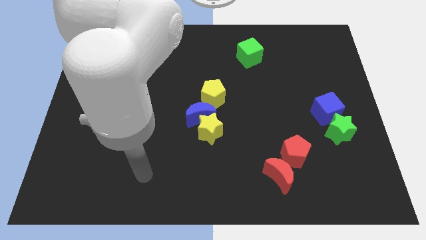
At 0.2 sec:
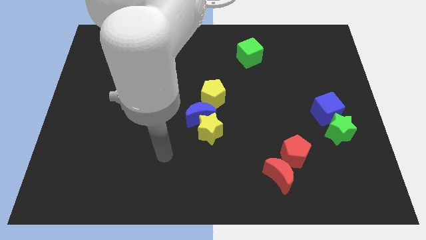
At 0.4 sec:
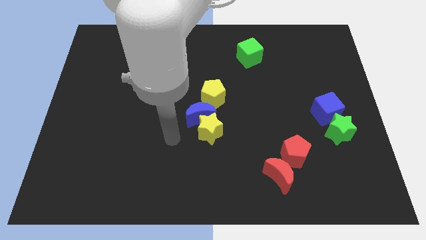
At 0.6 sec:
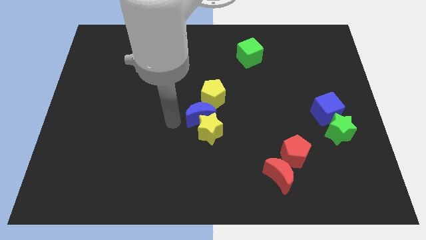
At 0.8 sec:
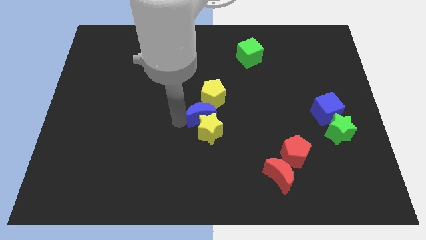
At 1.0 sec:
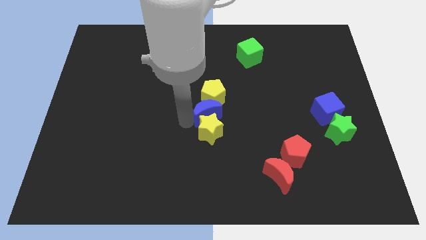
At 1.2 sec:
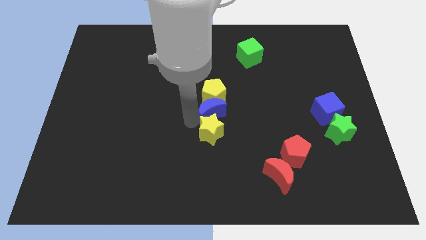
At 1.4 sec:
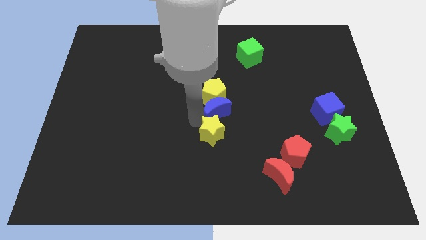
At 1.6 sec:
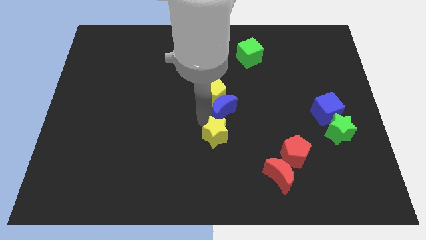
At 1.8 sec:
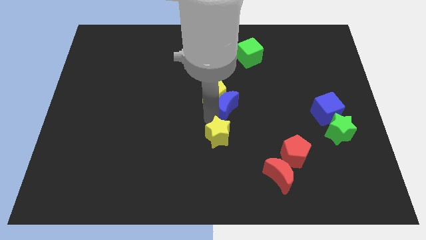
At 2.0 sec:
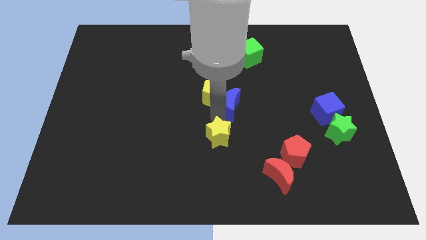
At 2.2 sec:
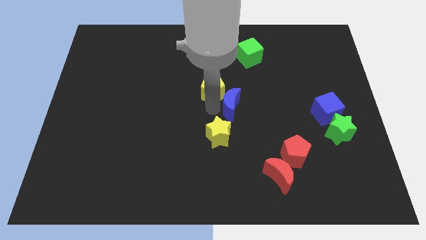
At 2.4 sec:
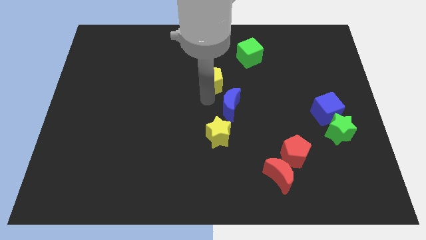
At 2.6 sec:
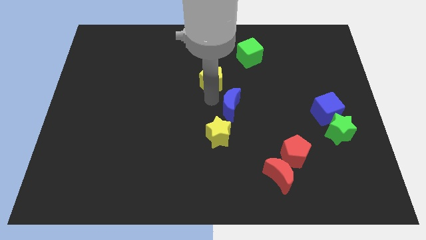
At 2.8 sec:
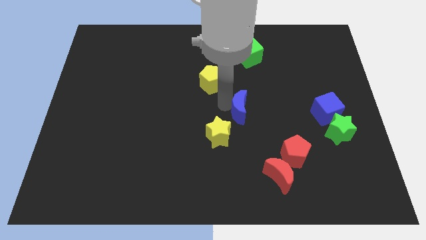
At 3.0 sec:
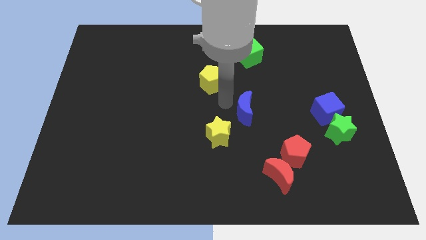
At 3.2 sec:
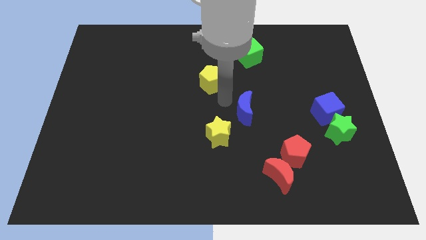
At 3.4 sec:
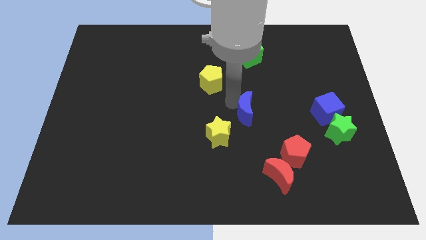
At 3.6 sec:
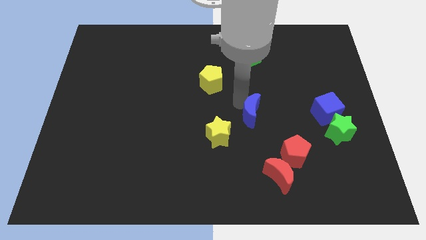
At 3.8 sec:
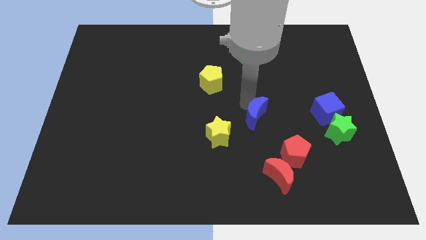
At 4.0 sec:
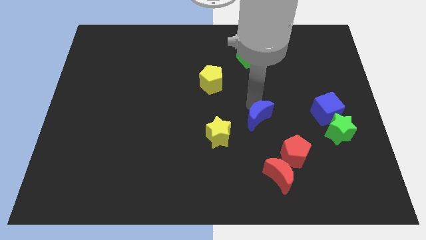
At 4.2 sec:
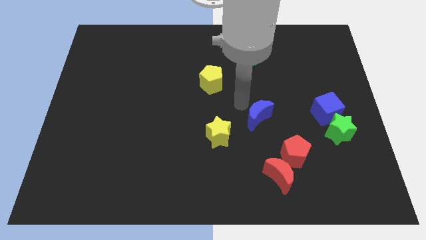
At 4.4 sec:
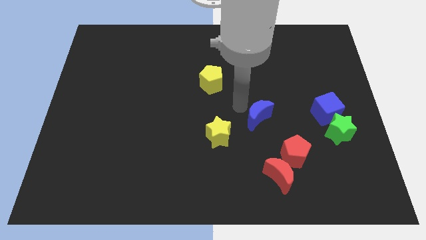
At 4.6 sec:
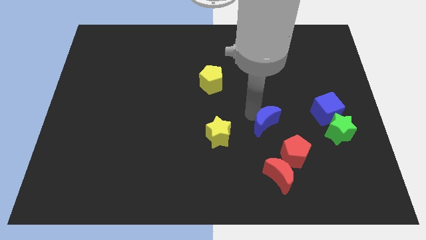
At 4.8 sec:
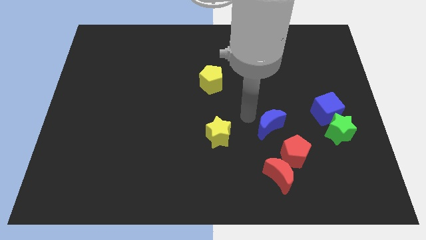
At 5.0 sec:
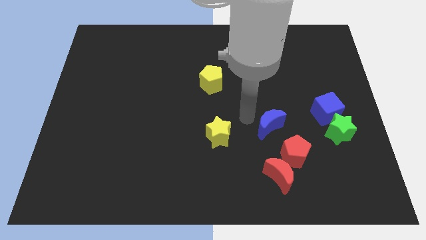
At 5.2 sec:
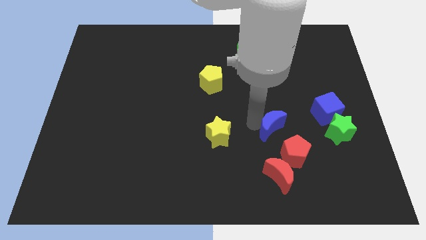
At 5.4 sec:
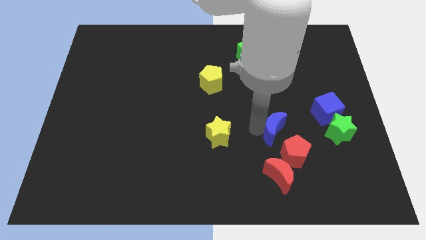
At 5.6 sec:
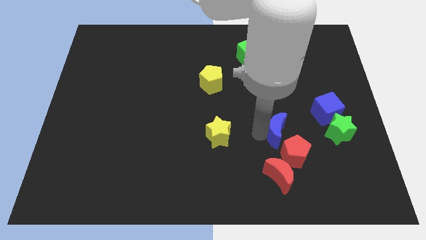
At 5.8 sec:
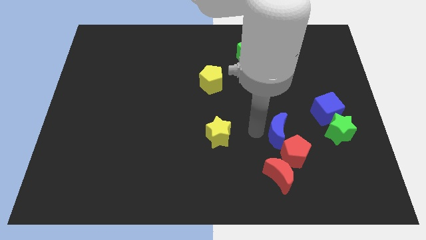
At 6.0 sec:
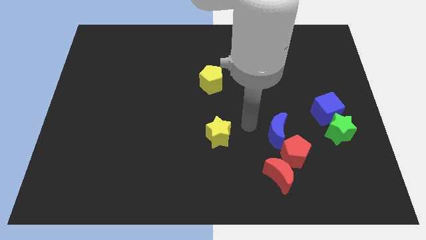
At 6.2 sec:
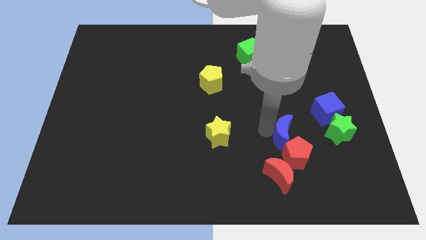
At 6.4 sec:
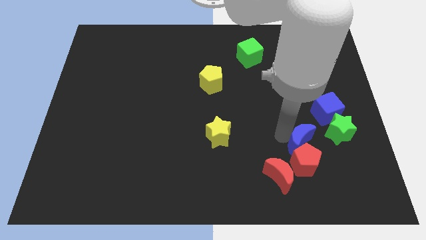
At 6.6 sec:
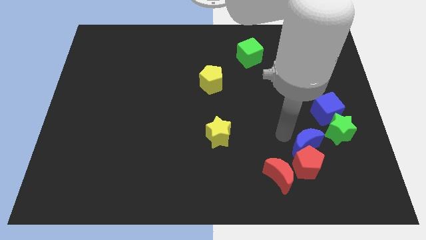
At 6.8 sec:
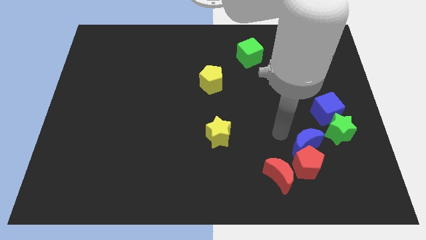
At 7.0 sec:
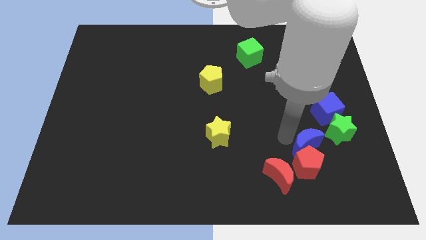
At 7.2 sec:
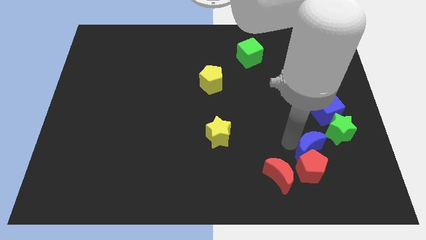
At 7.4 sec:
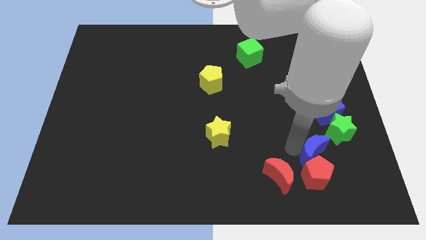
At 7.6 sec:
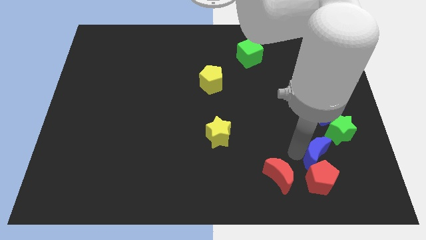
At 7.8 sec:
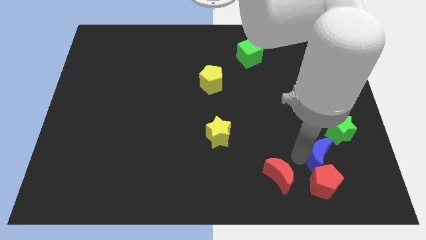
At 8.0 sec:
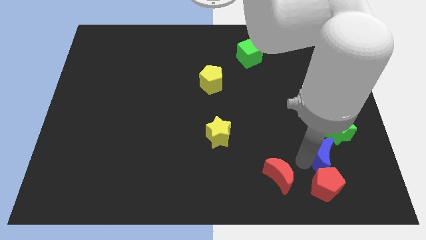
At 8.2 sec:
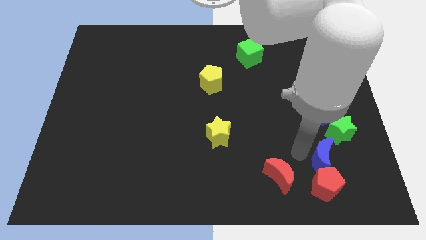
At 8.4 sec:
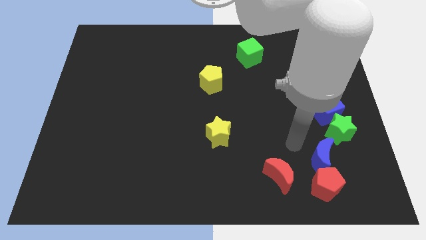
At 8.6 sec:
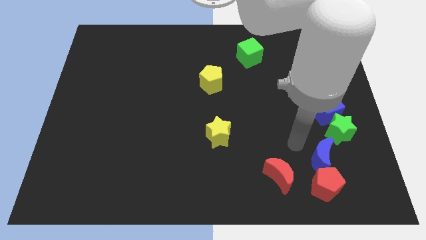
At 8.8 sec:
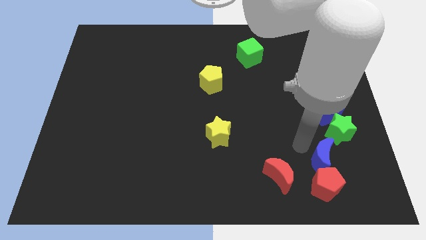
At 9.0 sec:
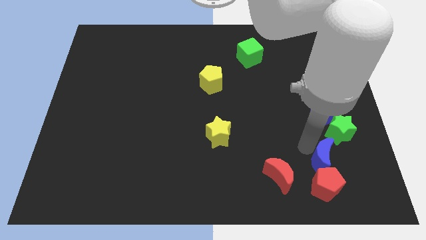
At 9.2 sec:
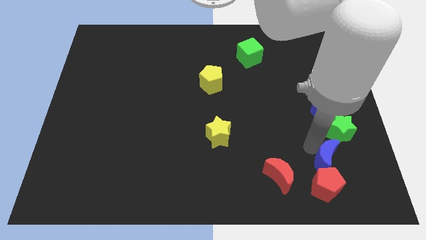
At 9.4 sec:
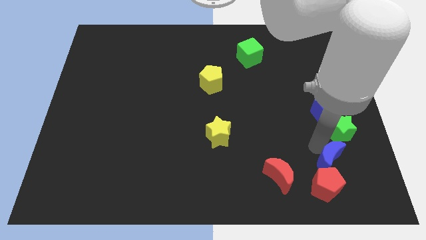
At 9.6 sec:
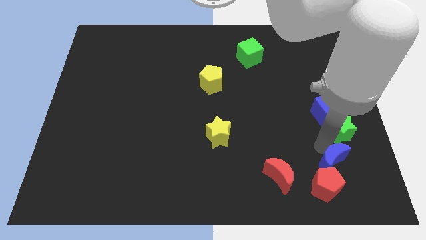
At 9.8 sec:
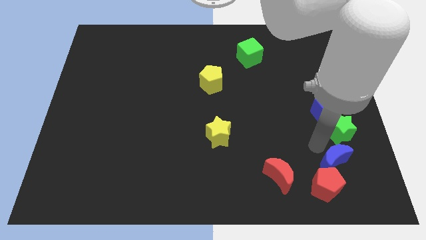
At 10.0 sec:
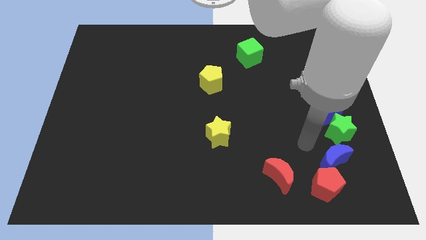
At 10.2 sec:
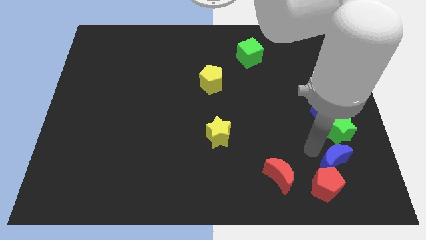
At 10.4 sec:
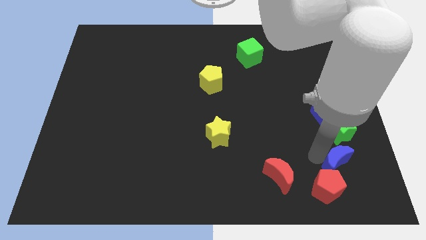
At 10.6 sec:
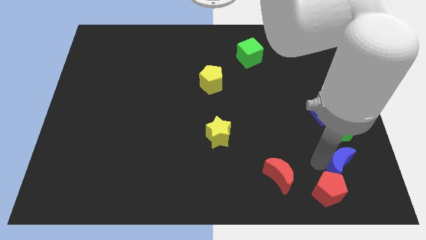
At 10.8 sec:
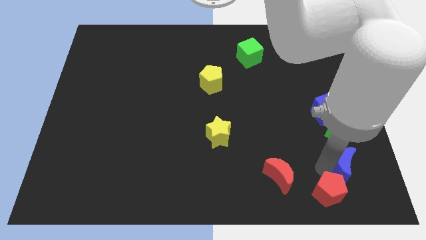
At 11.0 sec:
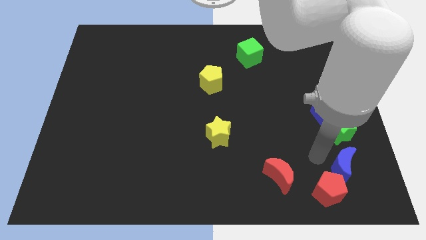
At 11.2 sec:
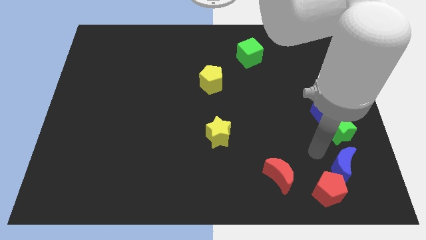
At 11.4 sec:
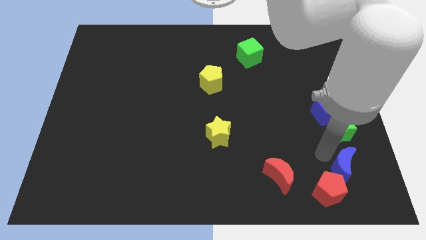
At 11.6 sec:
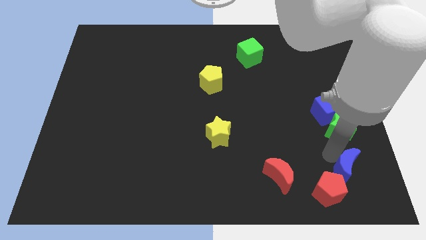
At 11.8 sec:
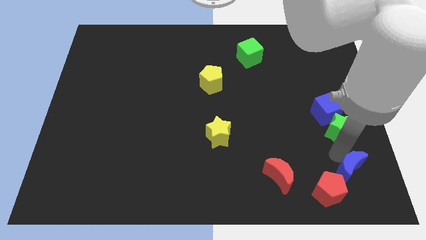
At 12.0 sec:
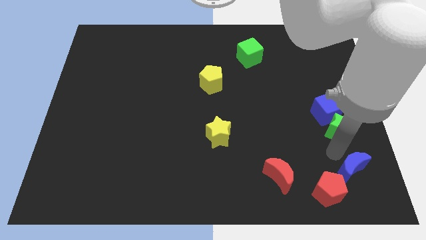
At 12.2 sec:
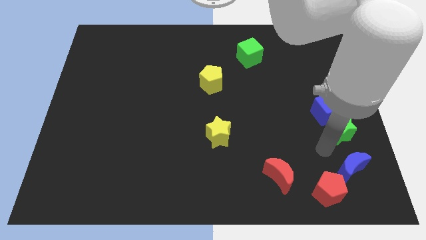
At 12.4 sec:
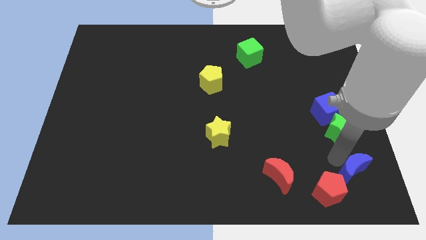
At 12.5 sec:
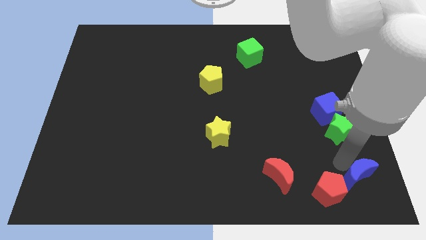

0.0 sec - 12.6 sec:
put the blue moon to the lower right corner
